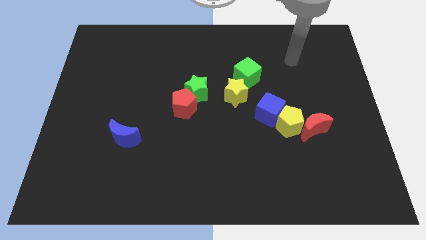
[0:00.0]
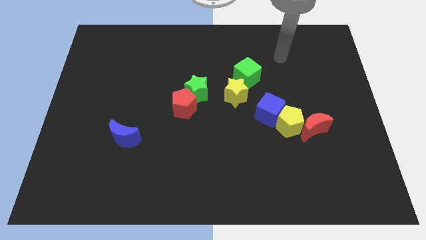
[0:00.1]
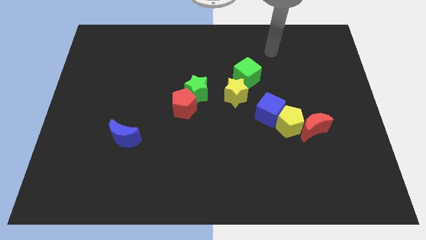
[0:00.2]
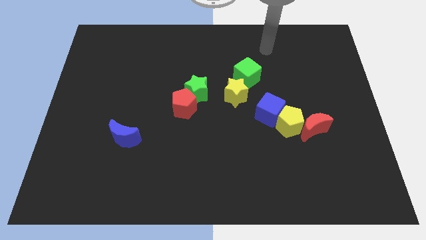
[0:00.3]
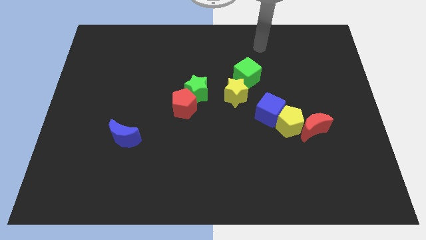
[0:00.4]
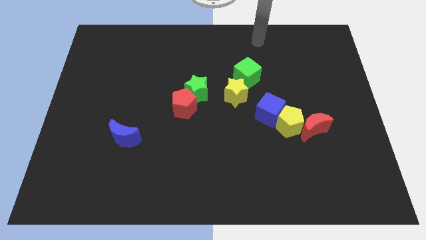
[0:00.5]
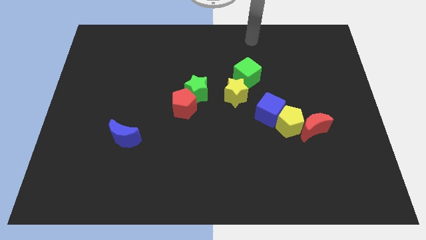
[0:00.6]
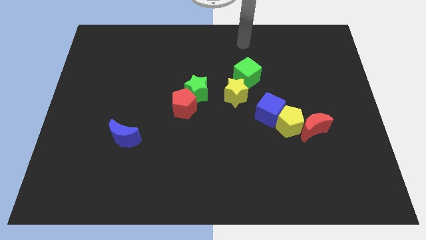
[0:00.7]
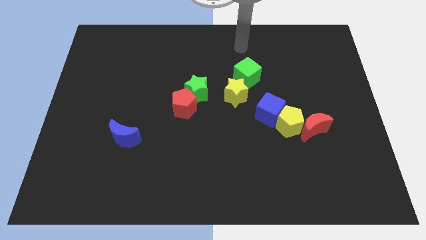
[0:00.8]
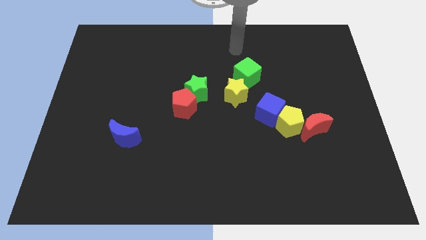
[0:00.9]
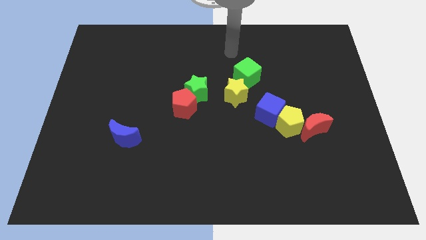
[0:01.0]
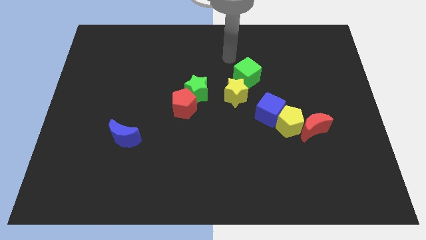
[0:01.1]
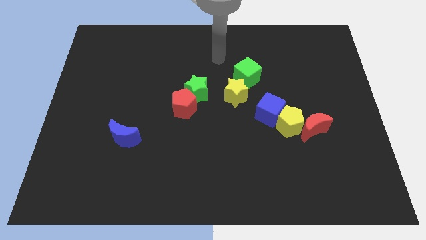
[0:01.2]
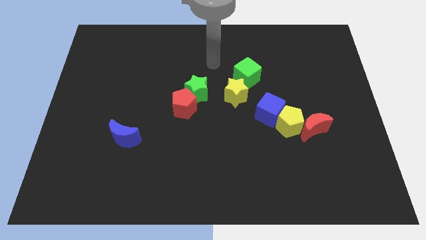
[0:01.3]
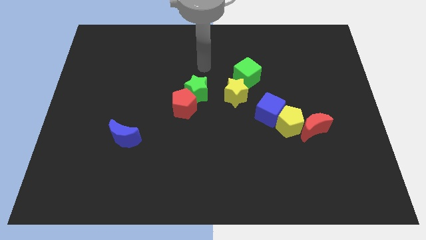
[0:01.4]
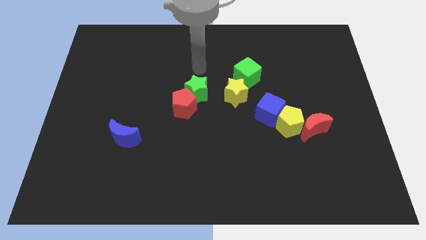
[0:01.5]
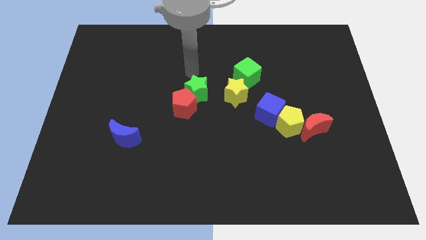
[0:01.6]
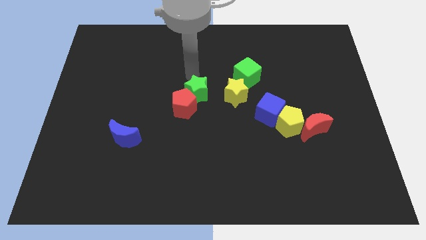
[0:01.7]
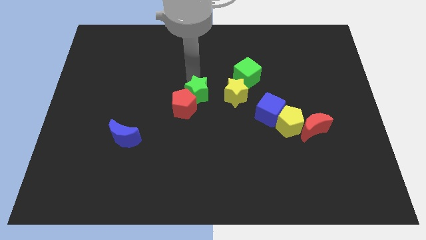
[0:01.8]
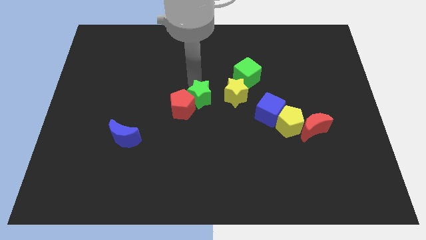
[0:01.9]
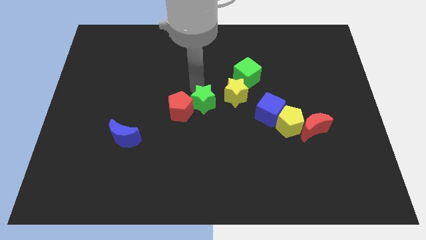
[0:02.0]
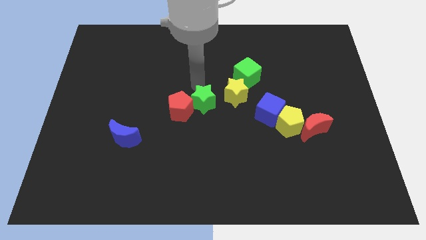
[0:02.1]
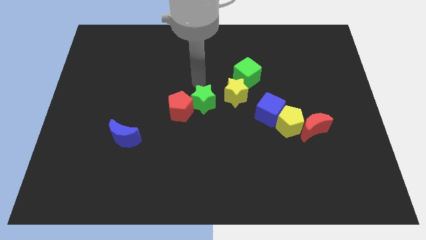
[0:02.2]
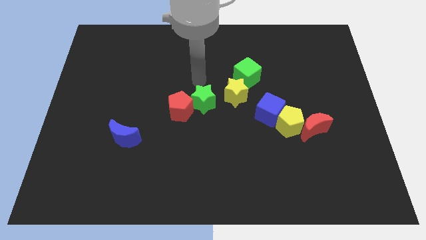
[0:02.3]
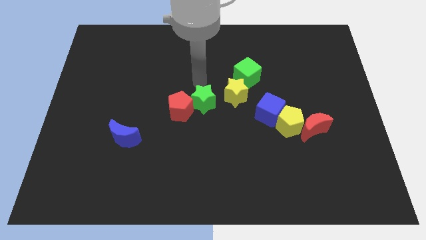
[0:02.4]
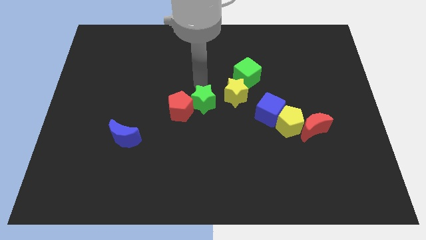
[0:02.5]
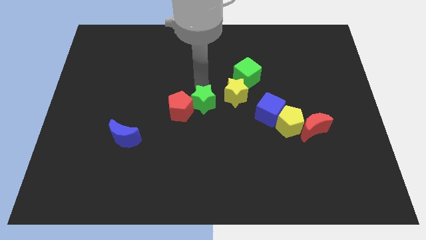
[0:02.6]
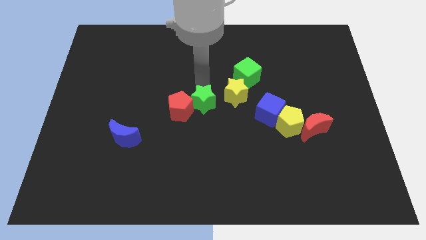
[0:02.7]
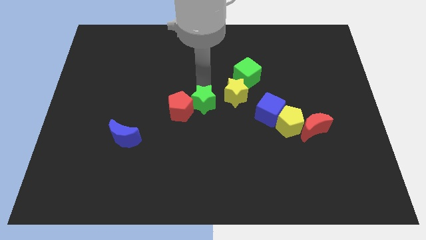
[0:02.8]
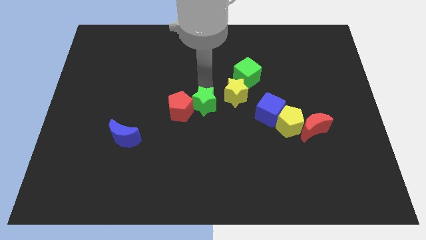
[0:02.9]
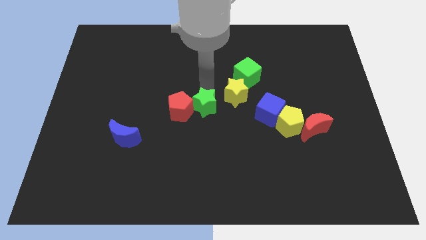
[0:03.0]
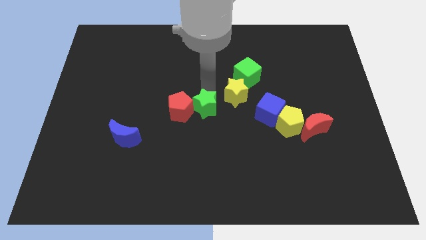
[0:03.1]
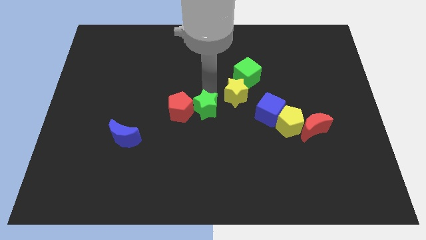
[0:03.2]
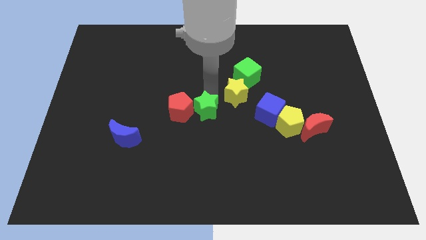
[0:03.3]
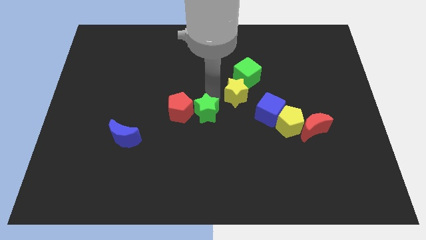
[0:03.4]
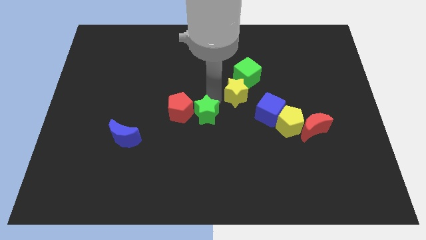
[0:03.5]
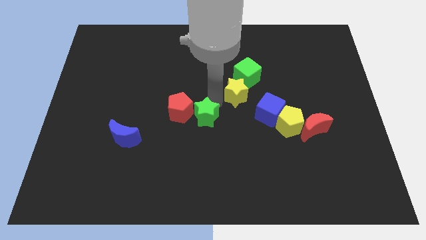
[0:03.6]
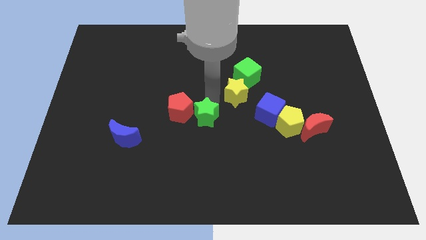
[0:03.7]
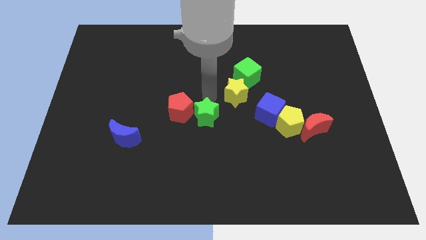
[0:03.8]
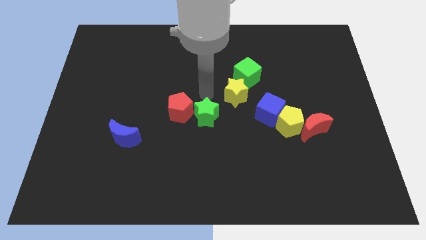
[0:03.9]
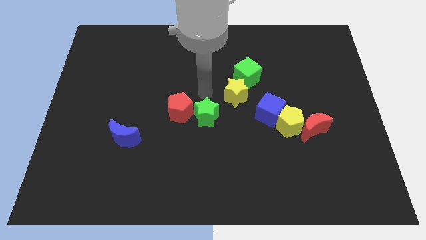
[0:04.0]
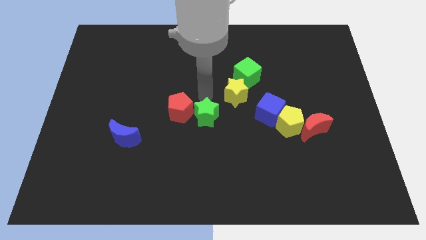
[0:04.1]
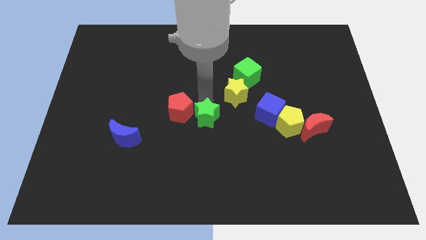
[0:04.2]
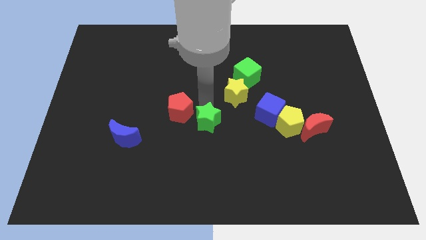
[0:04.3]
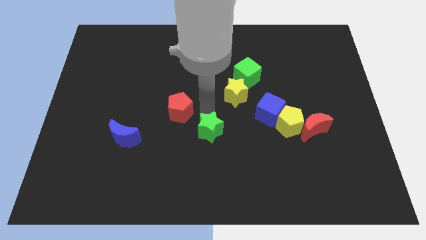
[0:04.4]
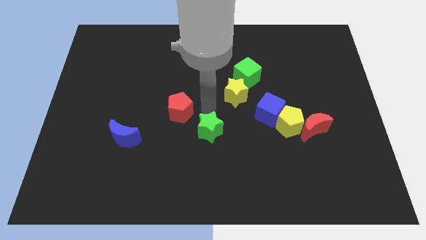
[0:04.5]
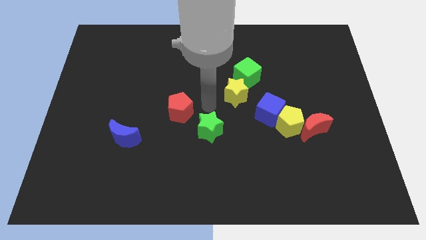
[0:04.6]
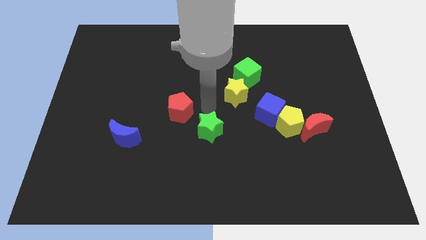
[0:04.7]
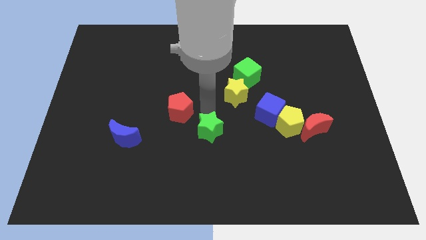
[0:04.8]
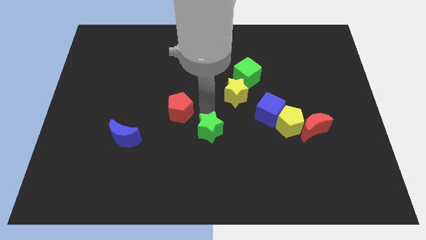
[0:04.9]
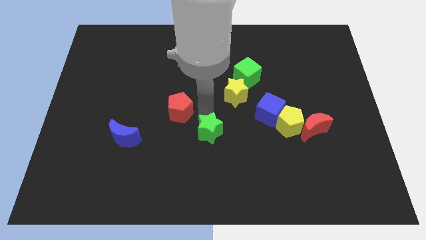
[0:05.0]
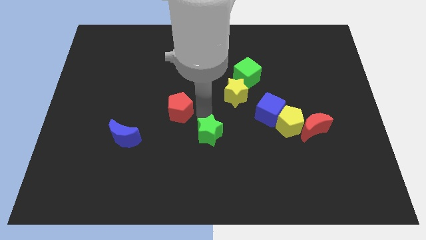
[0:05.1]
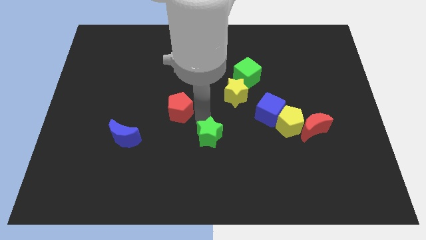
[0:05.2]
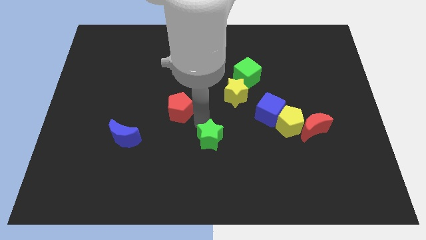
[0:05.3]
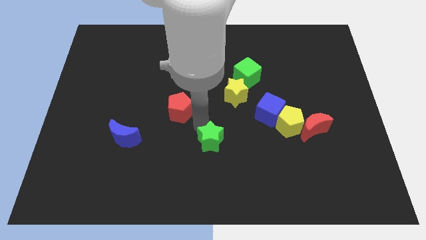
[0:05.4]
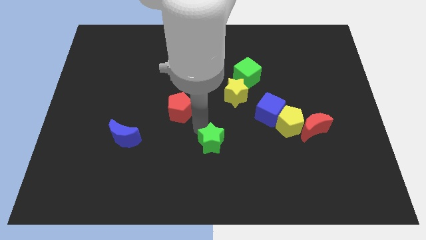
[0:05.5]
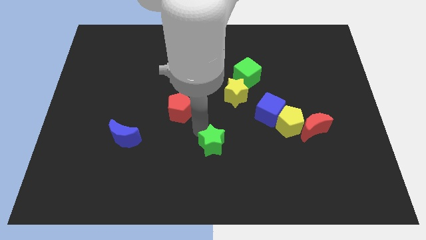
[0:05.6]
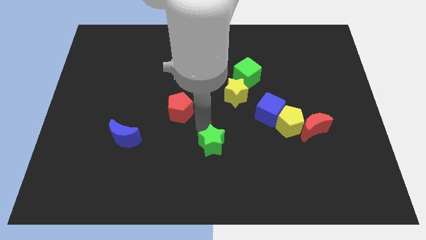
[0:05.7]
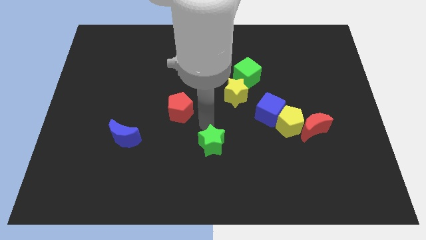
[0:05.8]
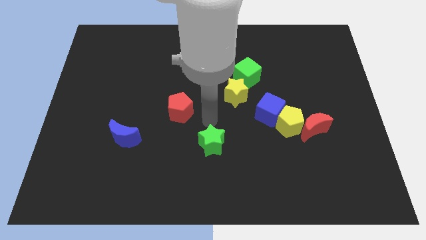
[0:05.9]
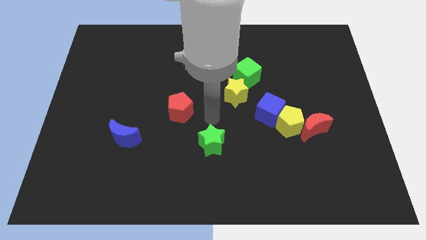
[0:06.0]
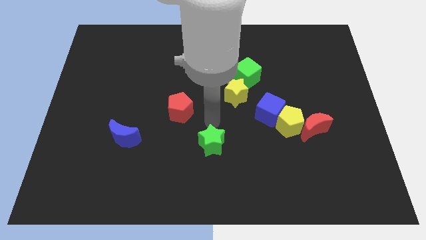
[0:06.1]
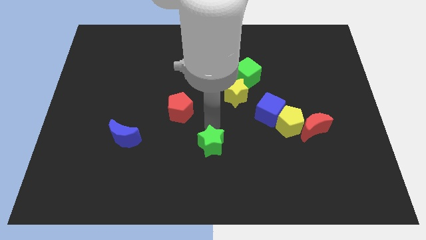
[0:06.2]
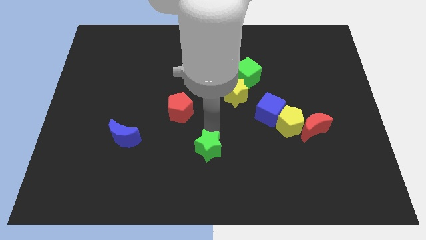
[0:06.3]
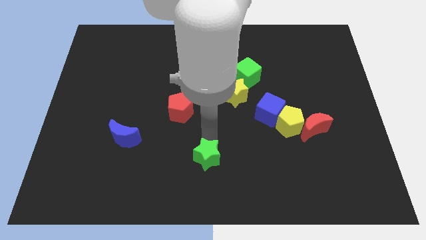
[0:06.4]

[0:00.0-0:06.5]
slide the green star to the bottom

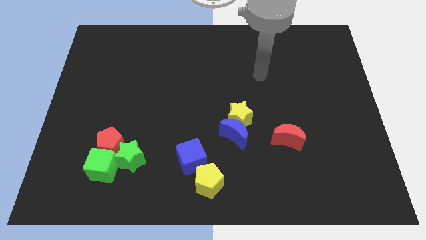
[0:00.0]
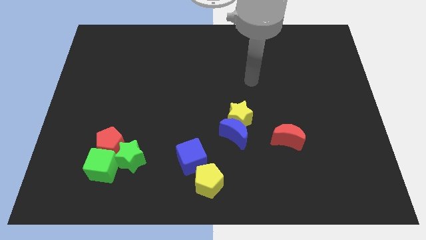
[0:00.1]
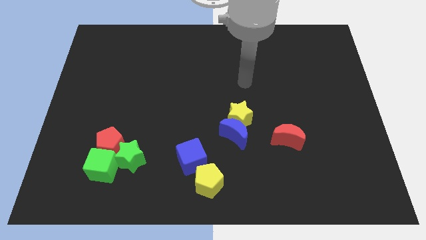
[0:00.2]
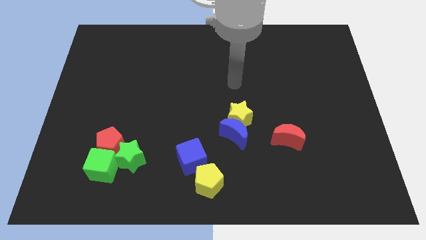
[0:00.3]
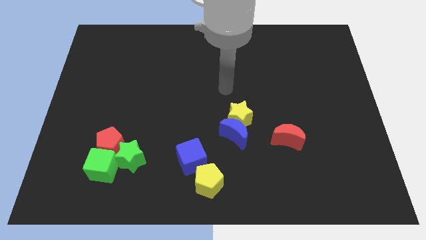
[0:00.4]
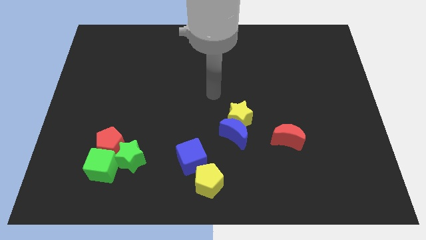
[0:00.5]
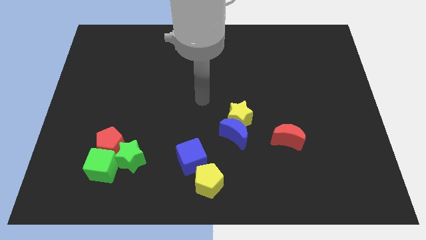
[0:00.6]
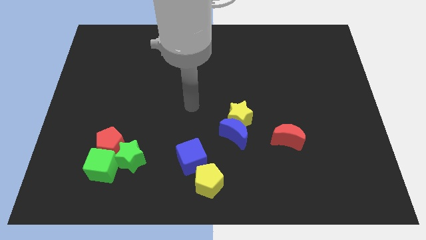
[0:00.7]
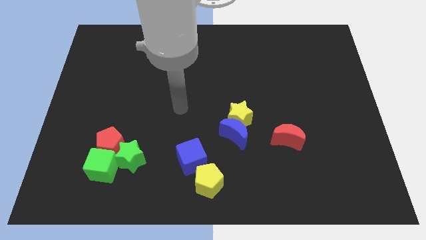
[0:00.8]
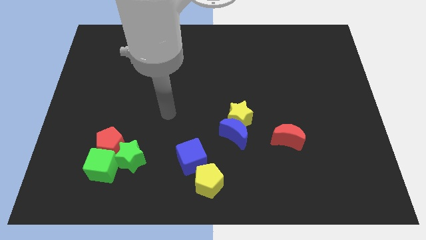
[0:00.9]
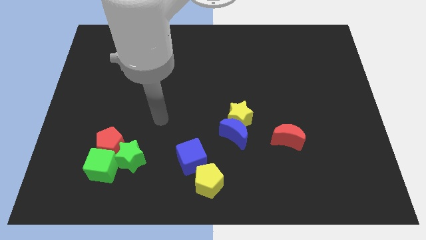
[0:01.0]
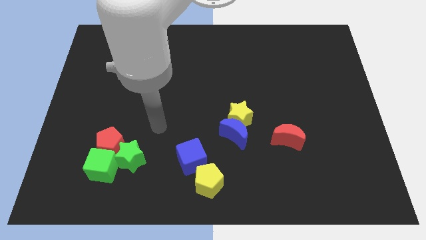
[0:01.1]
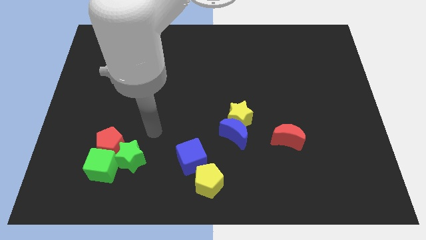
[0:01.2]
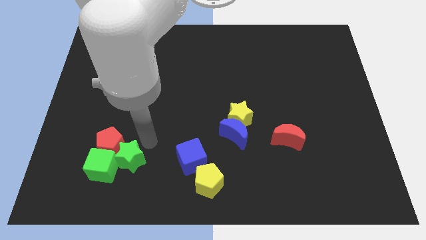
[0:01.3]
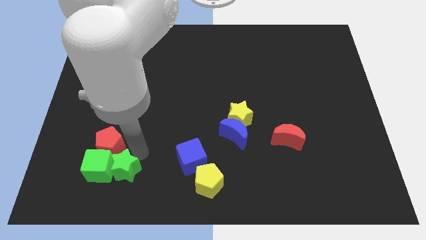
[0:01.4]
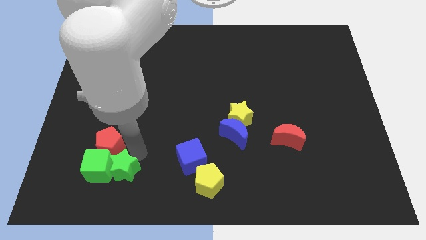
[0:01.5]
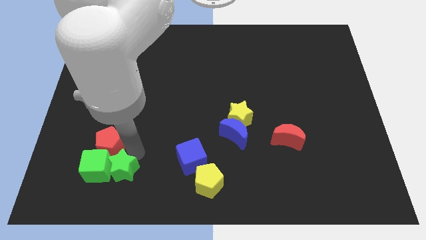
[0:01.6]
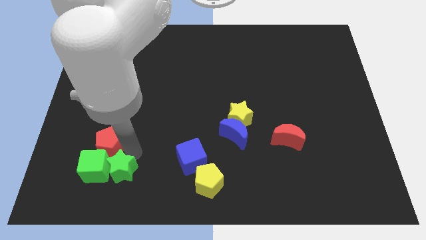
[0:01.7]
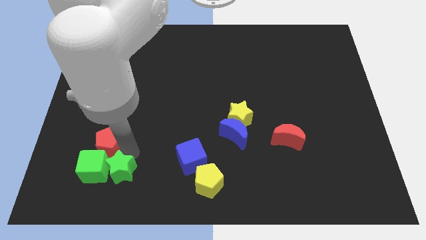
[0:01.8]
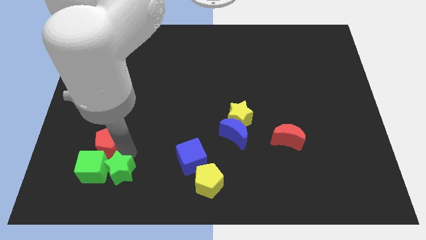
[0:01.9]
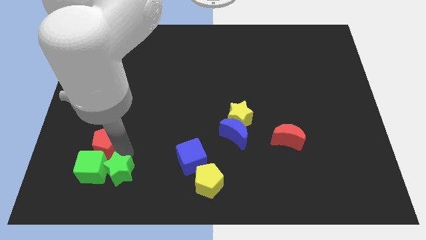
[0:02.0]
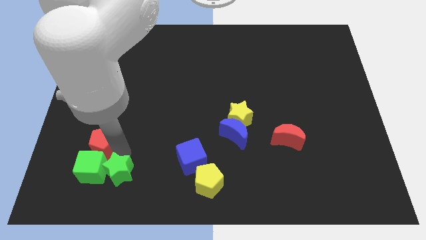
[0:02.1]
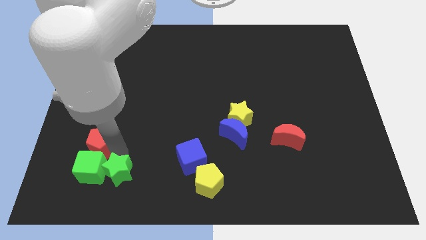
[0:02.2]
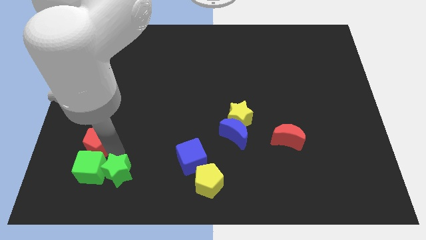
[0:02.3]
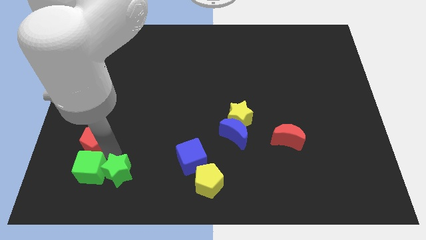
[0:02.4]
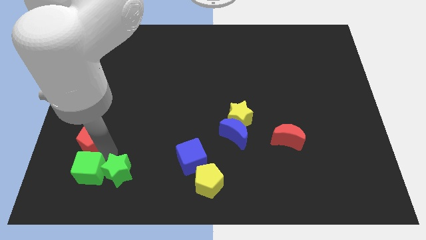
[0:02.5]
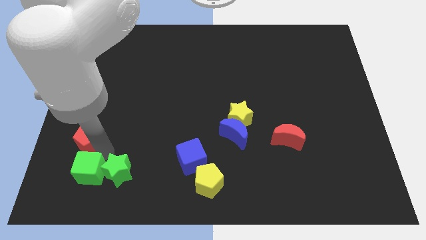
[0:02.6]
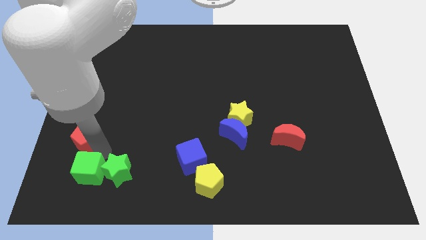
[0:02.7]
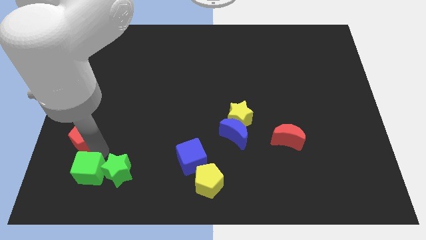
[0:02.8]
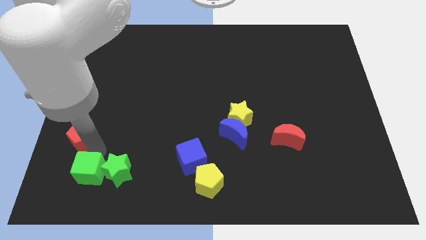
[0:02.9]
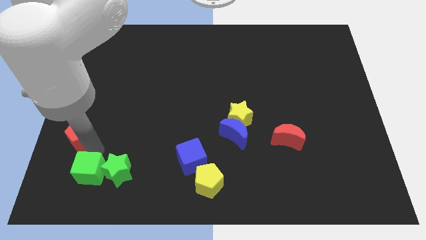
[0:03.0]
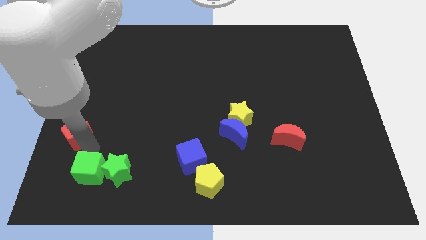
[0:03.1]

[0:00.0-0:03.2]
slide the red pentagon to the left side
